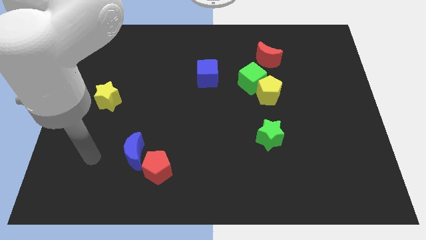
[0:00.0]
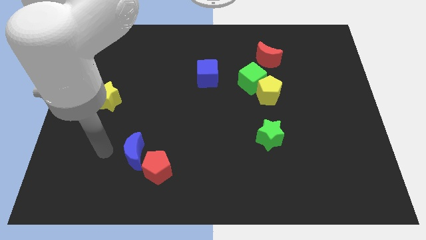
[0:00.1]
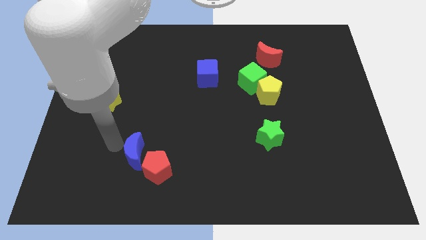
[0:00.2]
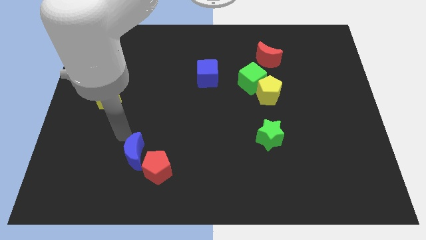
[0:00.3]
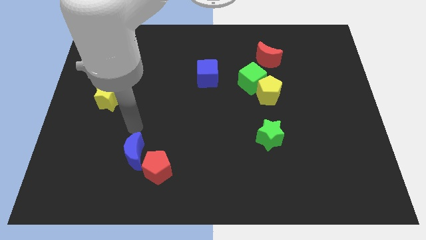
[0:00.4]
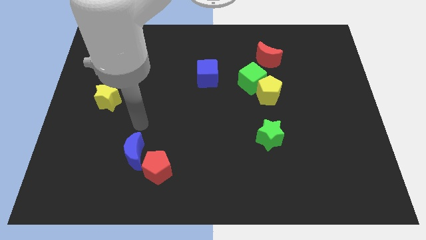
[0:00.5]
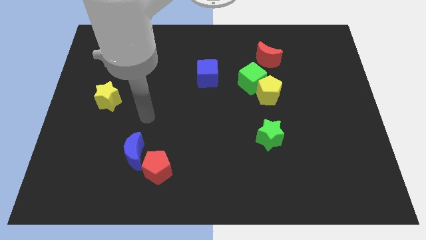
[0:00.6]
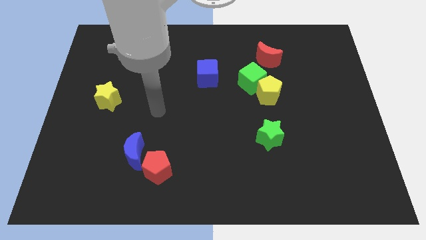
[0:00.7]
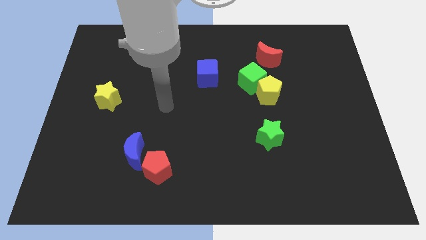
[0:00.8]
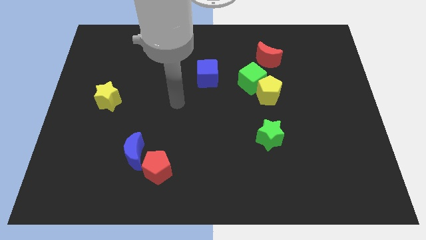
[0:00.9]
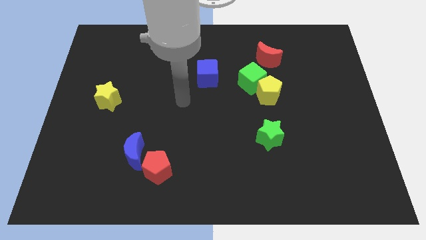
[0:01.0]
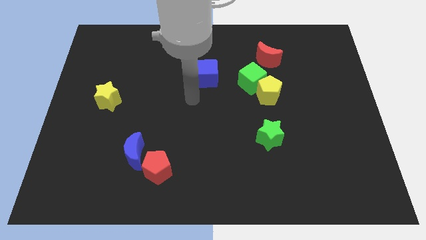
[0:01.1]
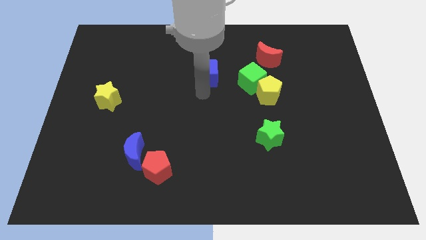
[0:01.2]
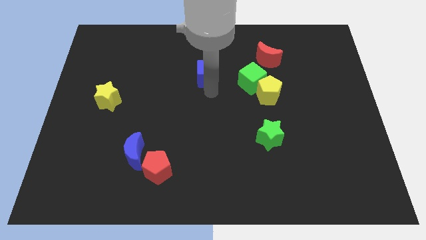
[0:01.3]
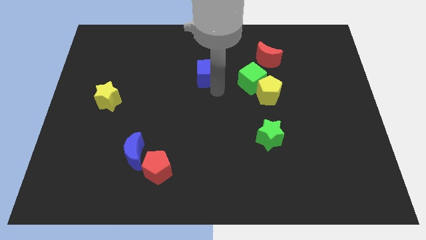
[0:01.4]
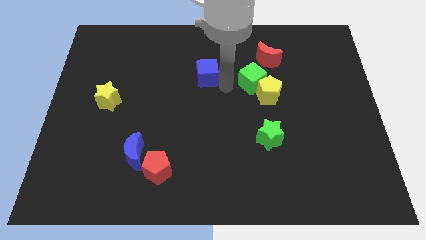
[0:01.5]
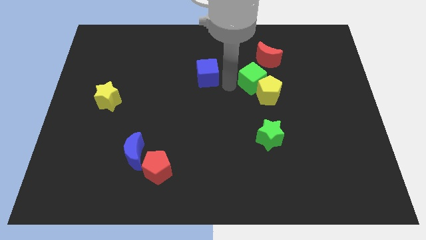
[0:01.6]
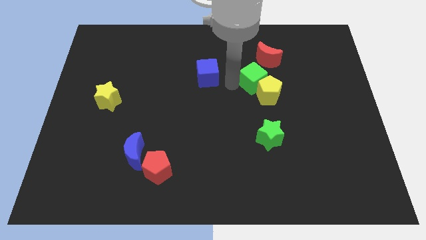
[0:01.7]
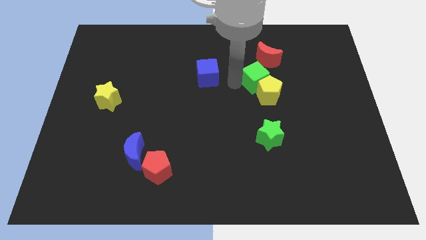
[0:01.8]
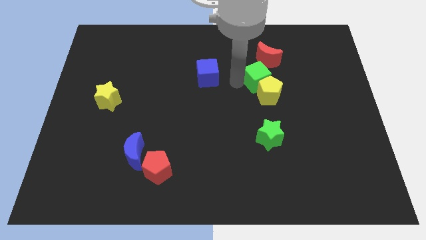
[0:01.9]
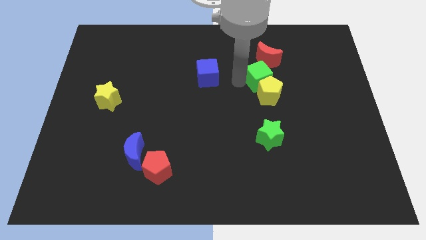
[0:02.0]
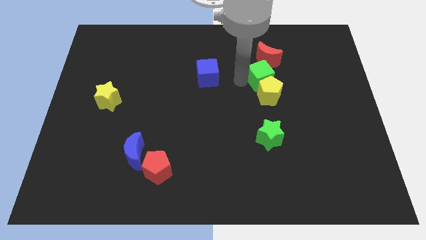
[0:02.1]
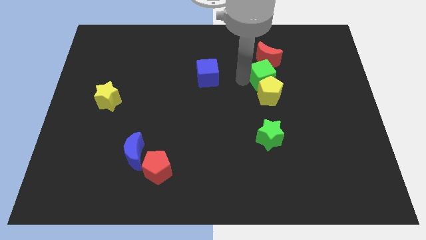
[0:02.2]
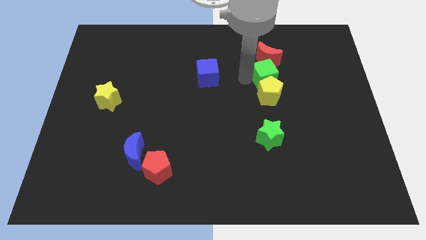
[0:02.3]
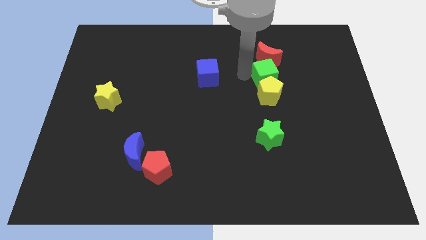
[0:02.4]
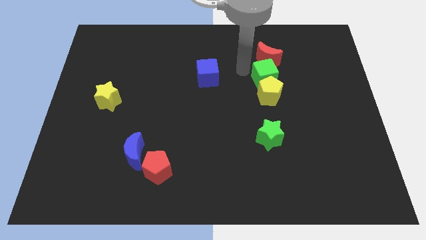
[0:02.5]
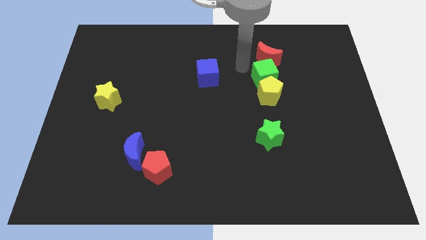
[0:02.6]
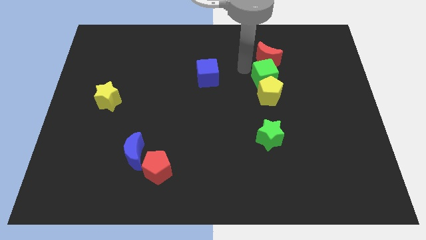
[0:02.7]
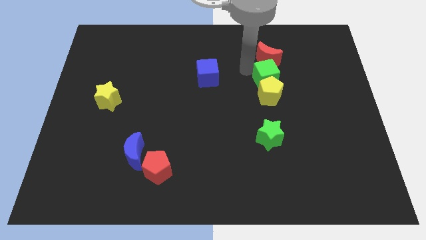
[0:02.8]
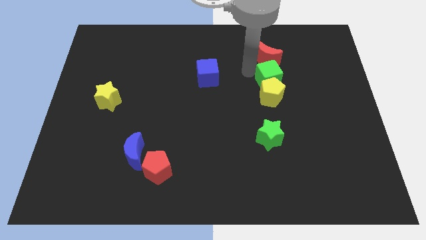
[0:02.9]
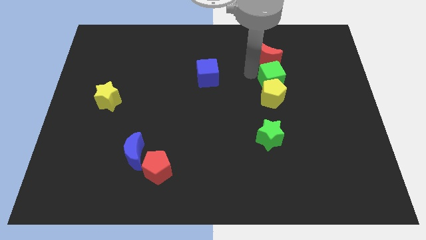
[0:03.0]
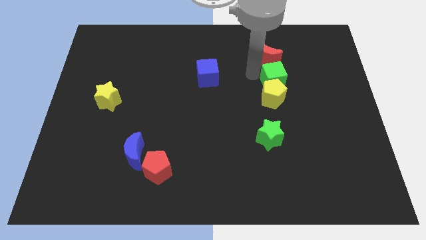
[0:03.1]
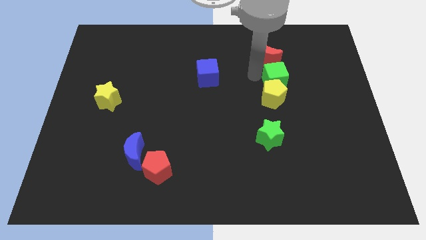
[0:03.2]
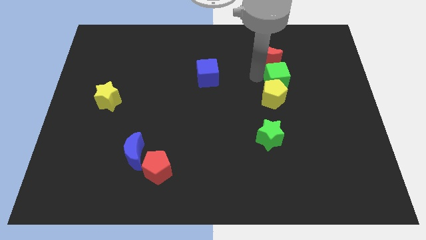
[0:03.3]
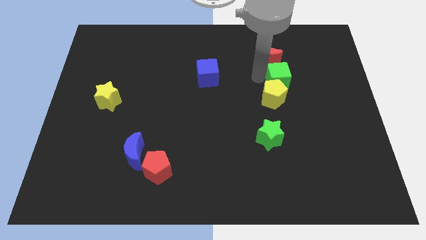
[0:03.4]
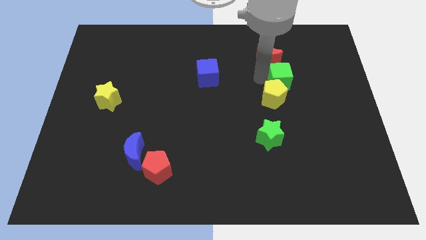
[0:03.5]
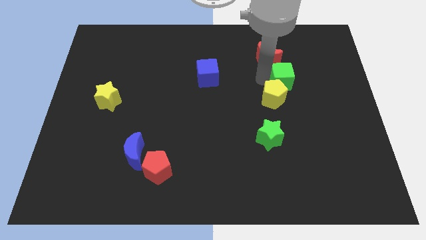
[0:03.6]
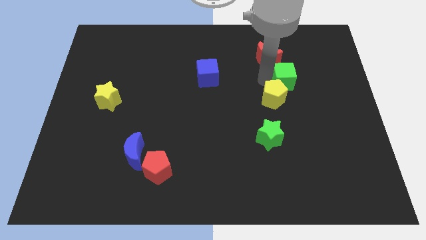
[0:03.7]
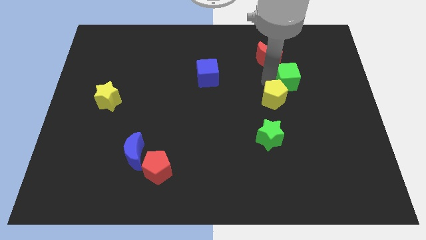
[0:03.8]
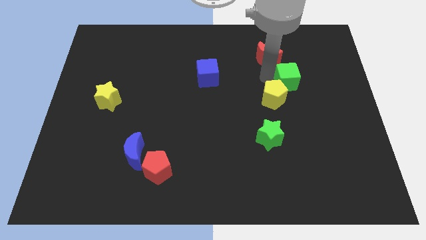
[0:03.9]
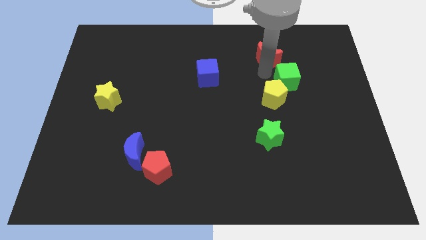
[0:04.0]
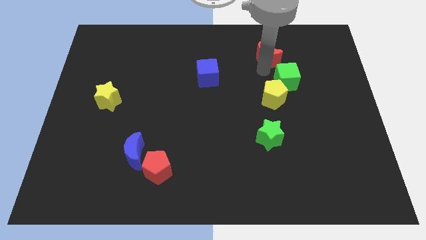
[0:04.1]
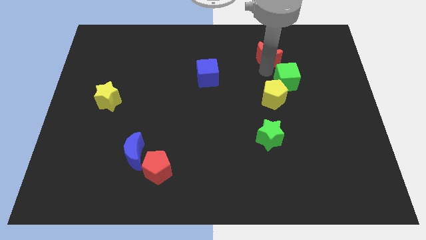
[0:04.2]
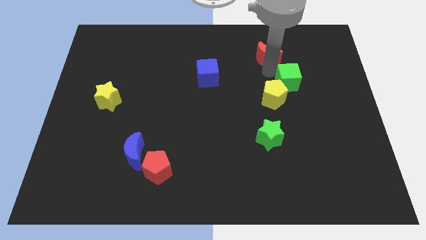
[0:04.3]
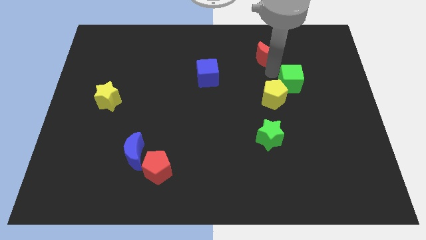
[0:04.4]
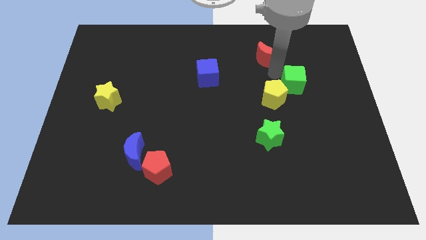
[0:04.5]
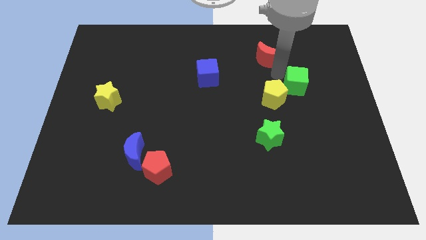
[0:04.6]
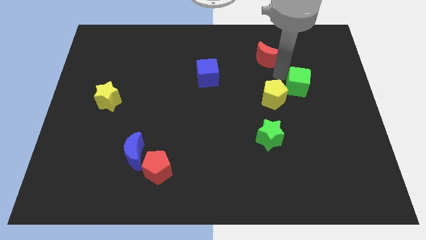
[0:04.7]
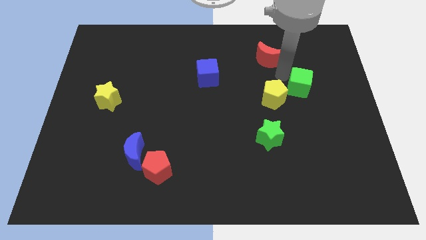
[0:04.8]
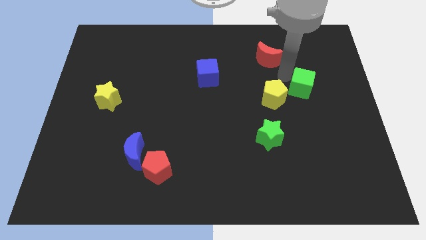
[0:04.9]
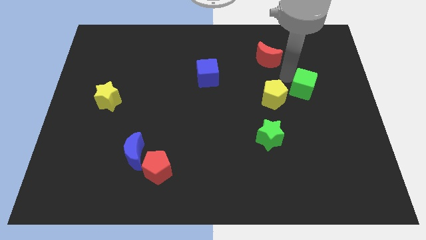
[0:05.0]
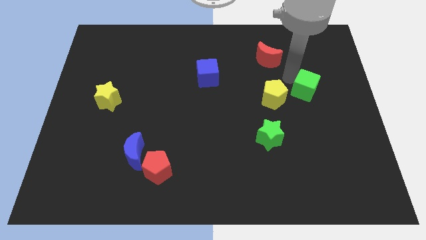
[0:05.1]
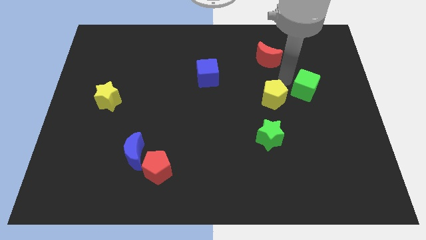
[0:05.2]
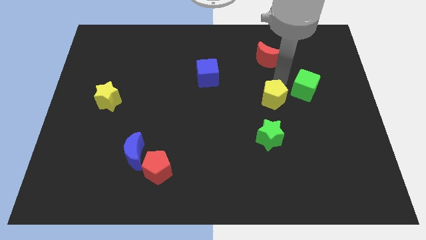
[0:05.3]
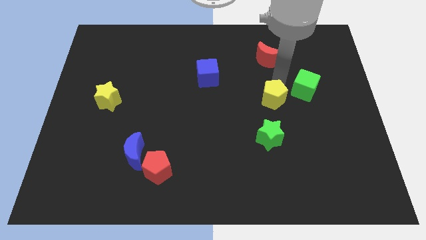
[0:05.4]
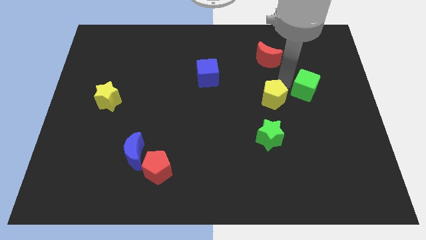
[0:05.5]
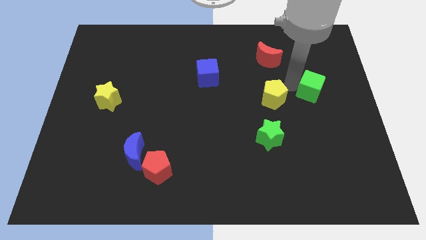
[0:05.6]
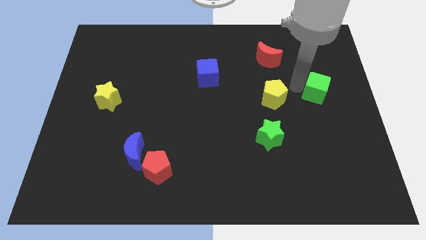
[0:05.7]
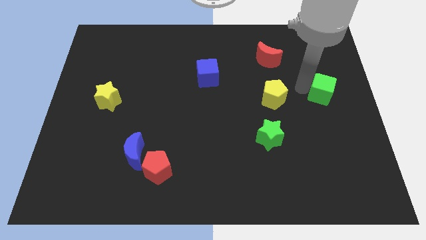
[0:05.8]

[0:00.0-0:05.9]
slide the green cube to the right side of the board
